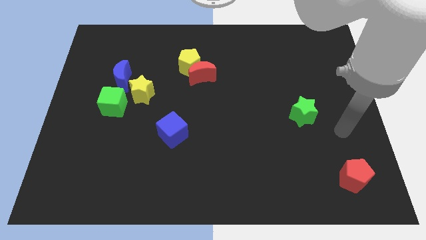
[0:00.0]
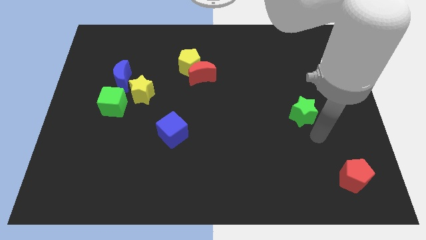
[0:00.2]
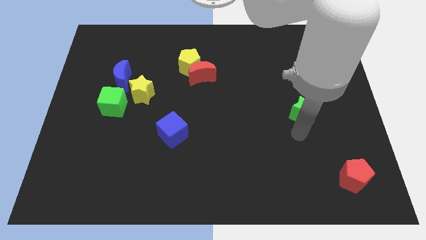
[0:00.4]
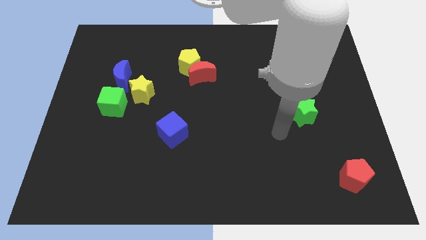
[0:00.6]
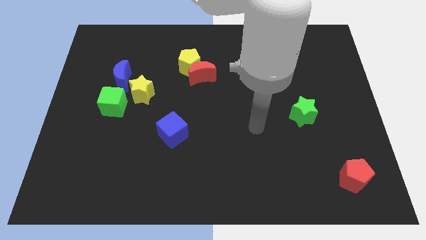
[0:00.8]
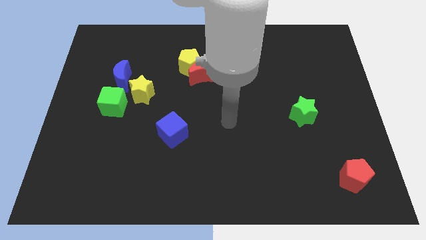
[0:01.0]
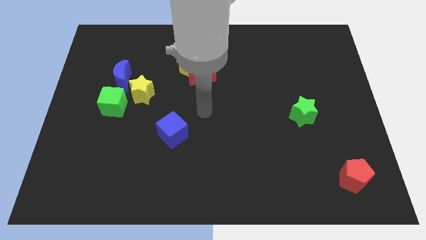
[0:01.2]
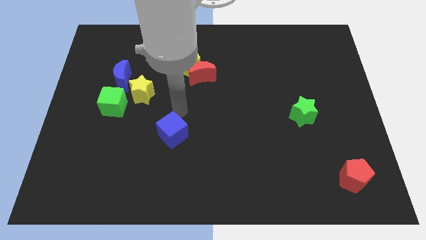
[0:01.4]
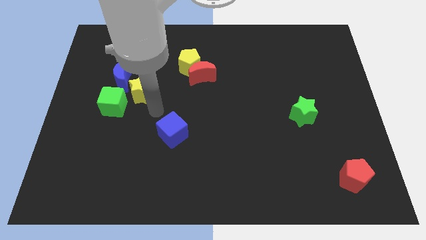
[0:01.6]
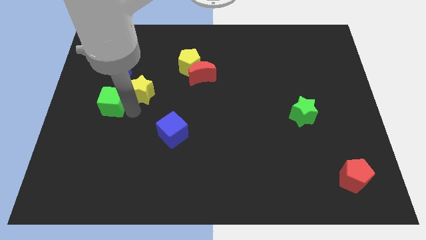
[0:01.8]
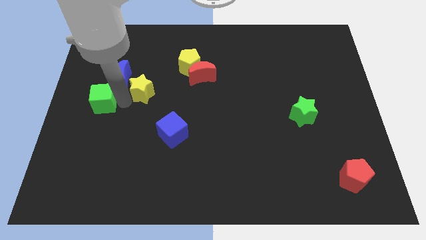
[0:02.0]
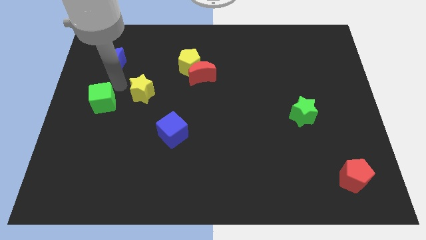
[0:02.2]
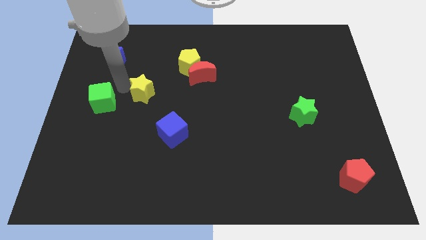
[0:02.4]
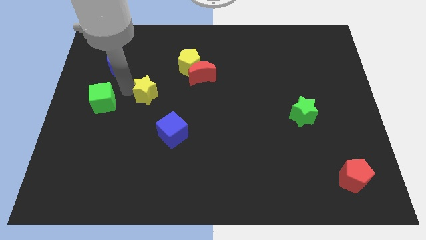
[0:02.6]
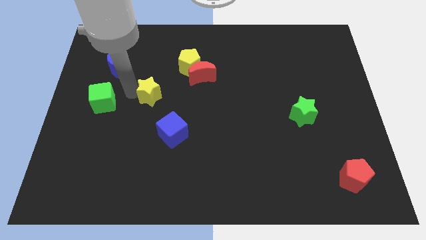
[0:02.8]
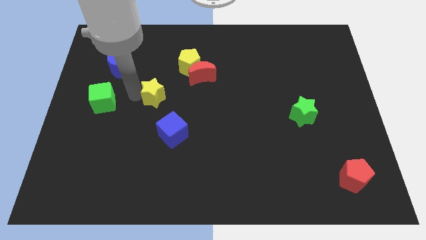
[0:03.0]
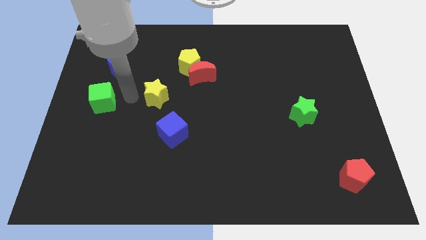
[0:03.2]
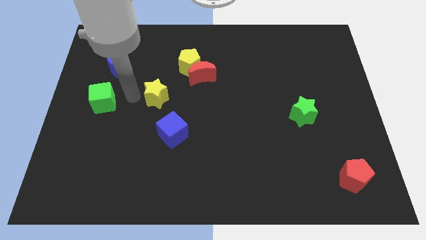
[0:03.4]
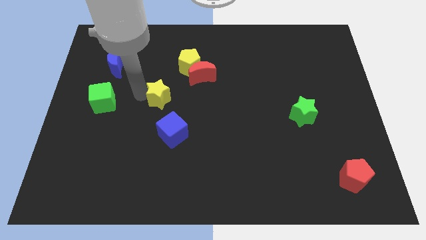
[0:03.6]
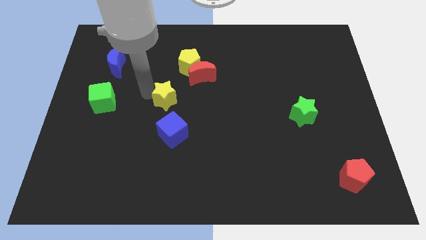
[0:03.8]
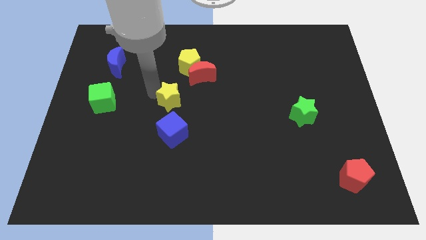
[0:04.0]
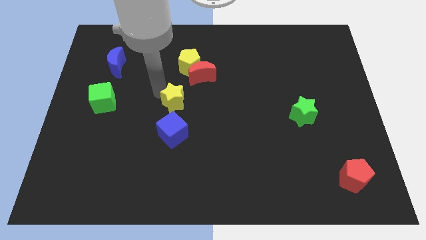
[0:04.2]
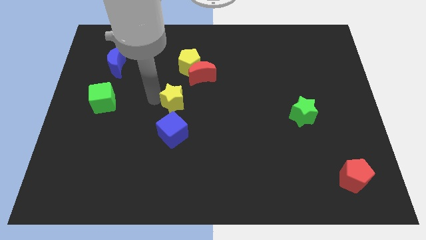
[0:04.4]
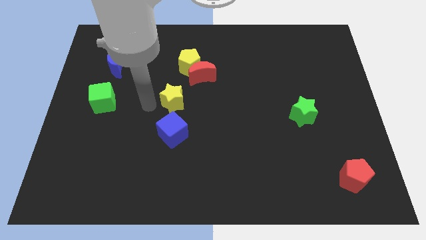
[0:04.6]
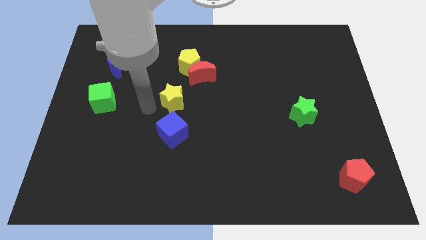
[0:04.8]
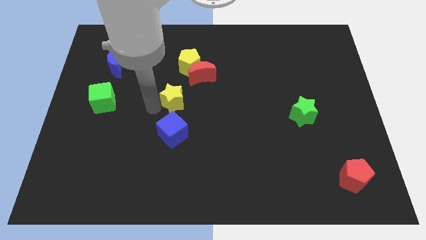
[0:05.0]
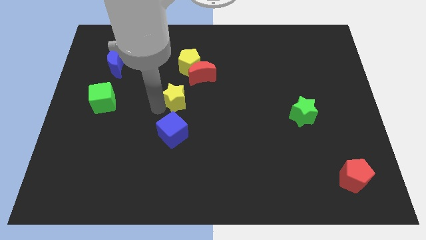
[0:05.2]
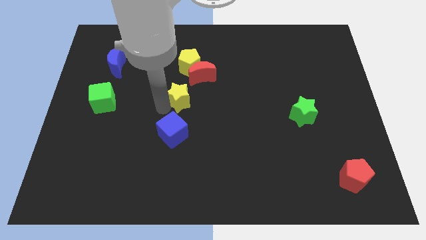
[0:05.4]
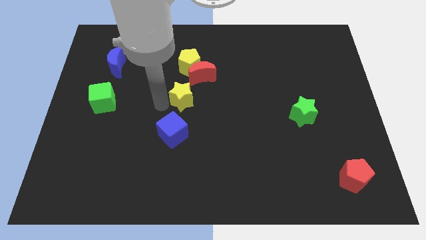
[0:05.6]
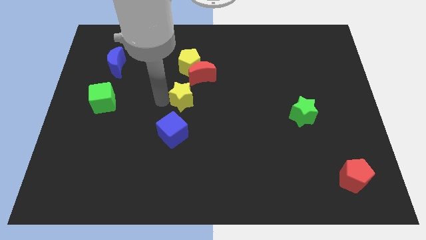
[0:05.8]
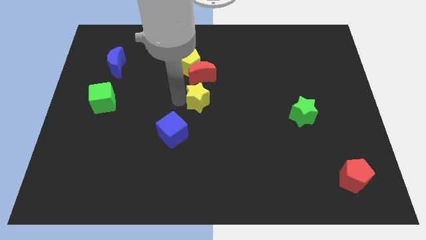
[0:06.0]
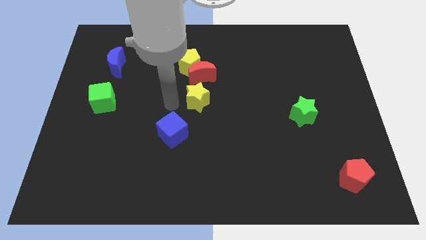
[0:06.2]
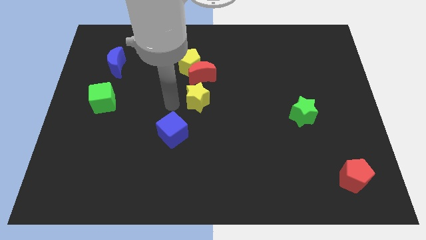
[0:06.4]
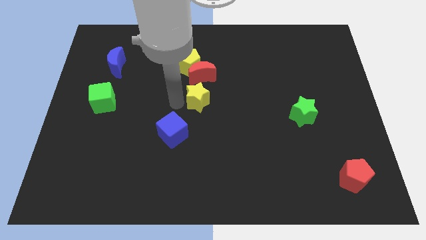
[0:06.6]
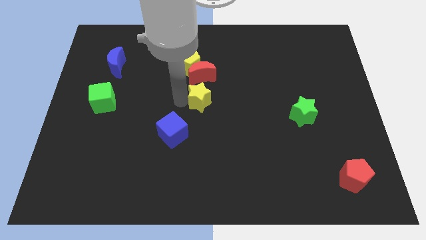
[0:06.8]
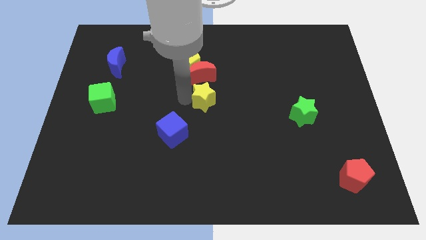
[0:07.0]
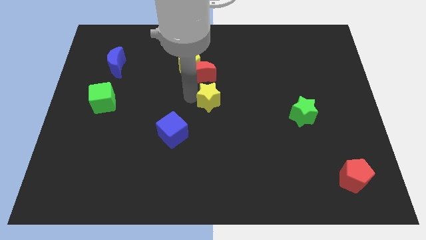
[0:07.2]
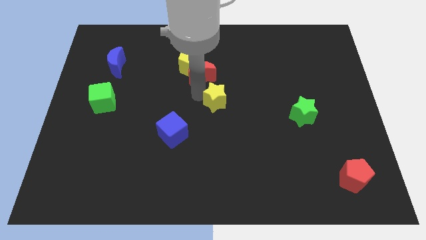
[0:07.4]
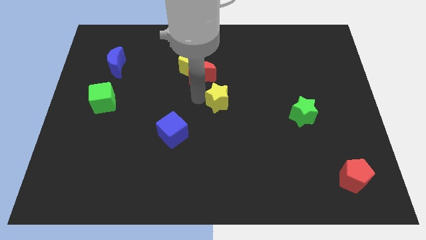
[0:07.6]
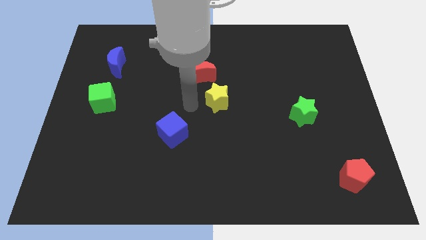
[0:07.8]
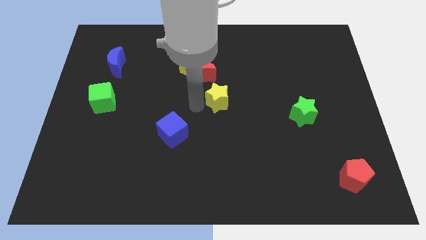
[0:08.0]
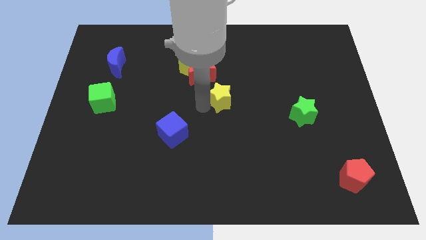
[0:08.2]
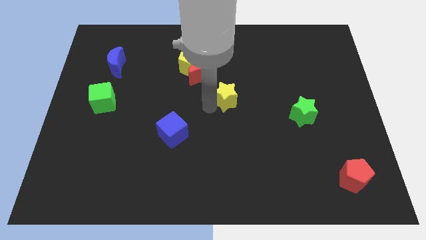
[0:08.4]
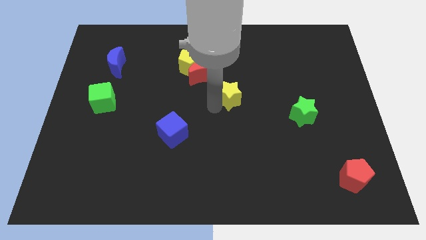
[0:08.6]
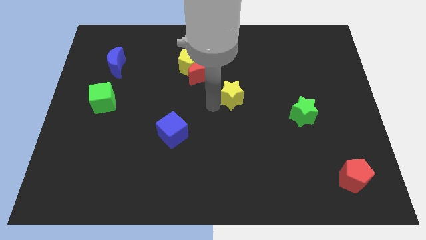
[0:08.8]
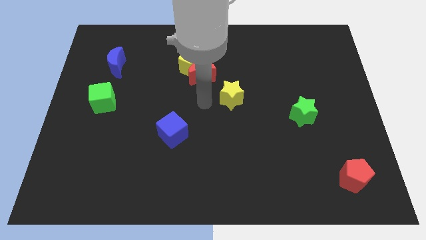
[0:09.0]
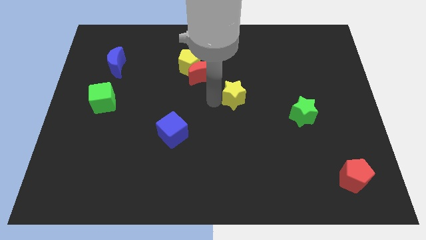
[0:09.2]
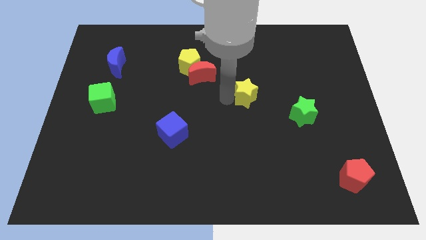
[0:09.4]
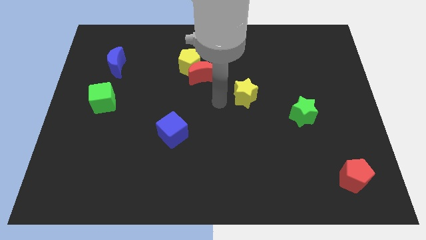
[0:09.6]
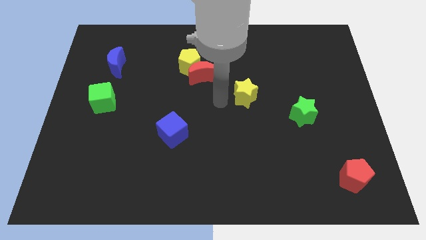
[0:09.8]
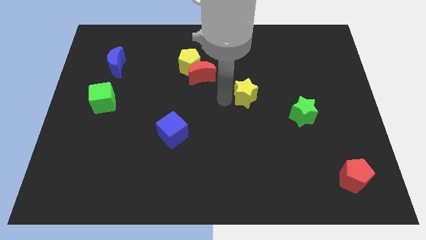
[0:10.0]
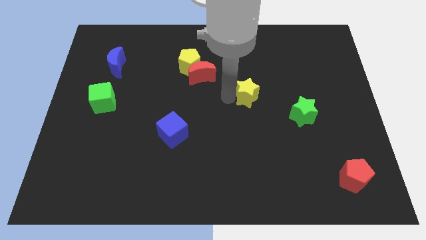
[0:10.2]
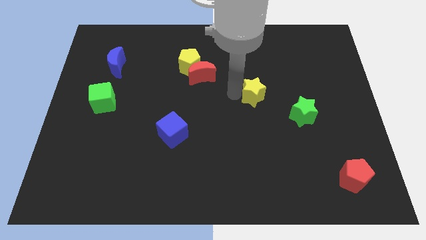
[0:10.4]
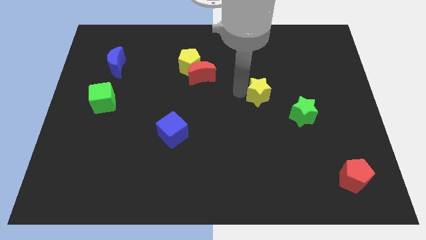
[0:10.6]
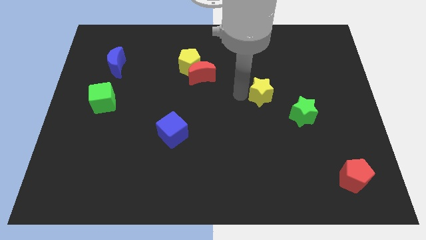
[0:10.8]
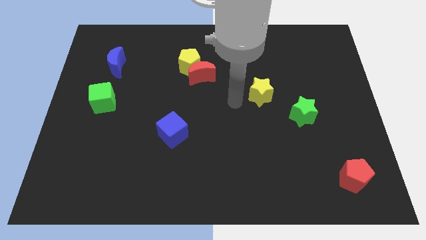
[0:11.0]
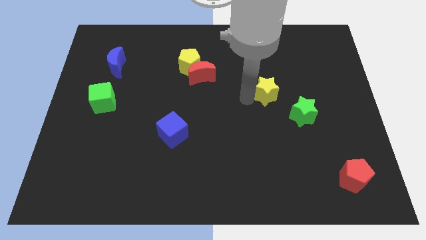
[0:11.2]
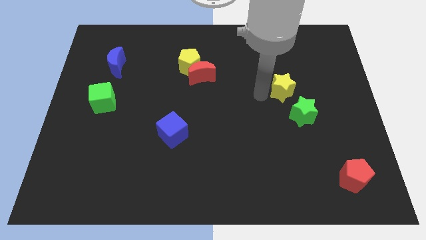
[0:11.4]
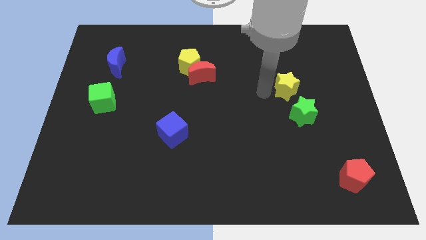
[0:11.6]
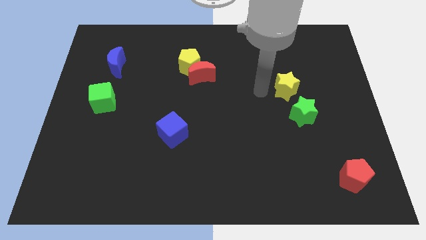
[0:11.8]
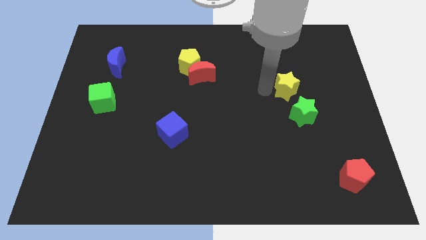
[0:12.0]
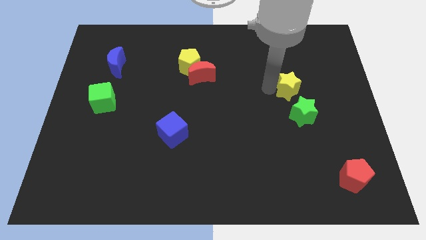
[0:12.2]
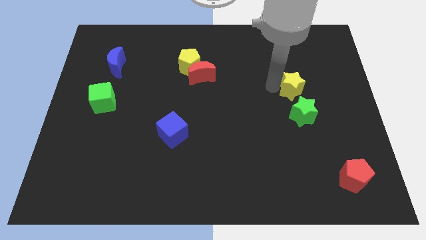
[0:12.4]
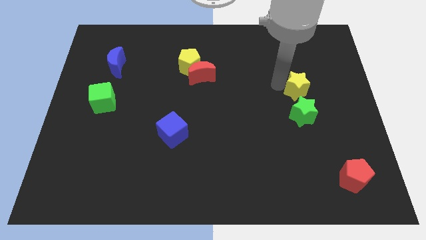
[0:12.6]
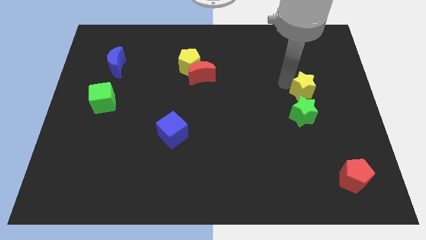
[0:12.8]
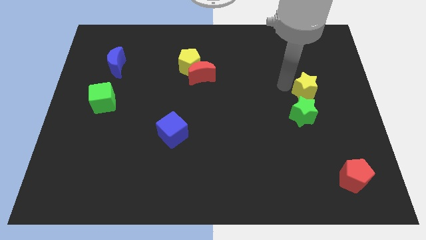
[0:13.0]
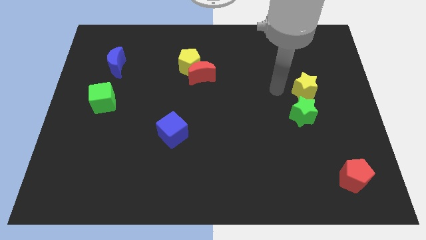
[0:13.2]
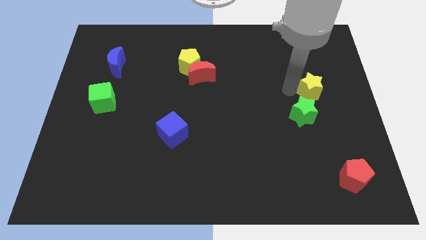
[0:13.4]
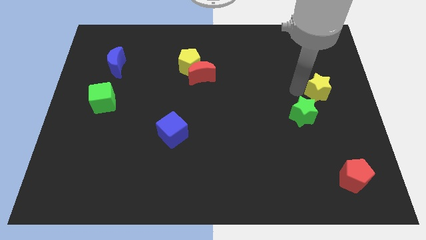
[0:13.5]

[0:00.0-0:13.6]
put the yellow star to the right side
